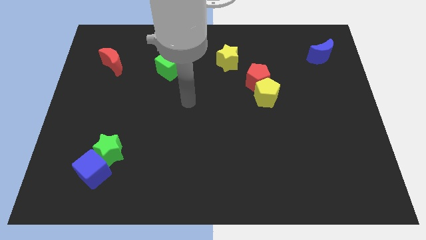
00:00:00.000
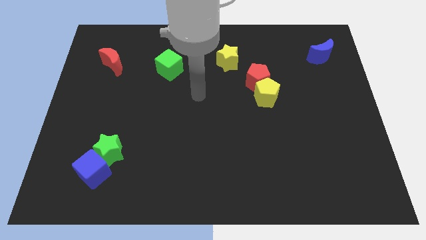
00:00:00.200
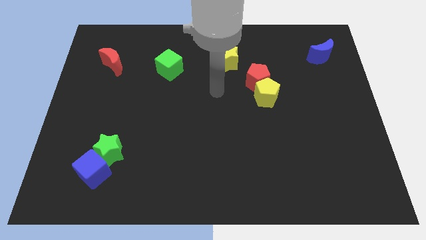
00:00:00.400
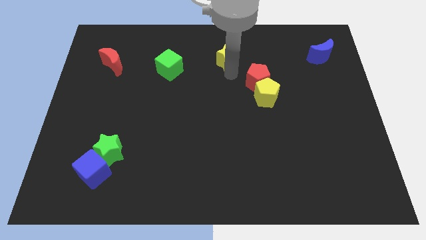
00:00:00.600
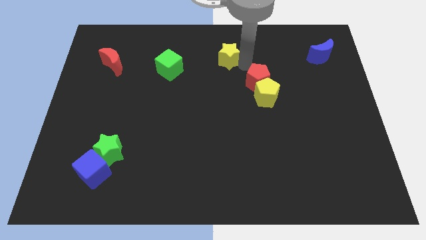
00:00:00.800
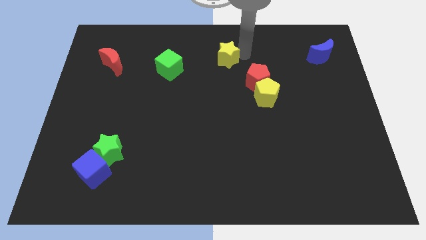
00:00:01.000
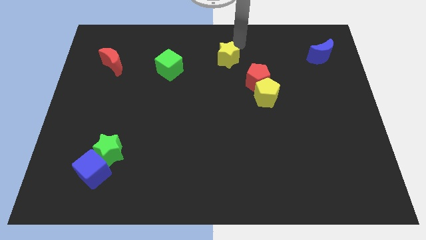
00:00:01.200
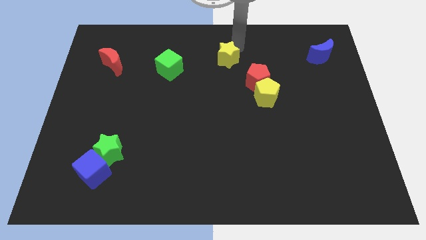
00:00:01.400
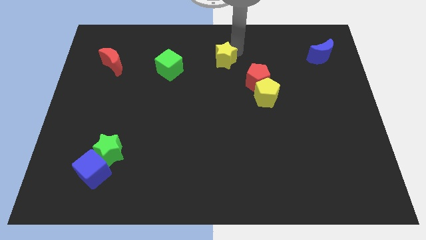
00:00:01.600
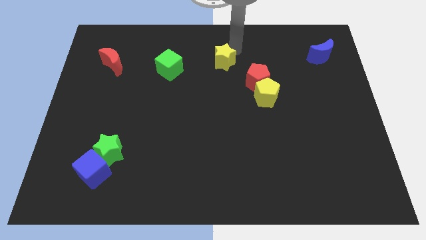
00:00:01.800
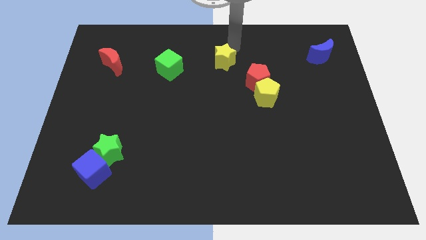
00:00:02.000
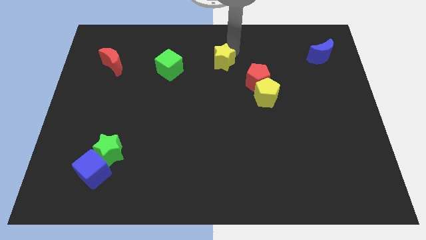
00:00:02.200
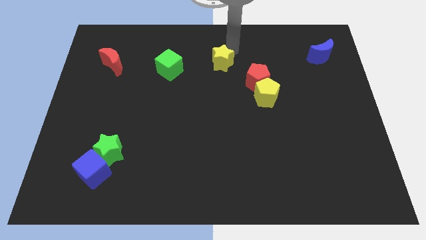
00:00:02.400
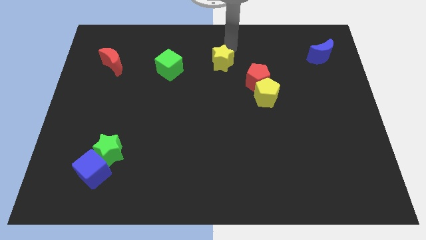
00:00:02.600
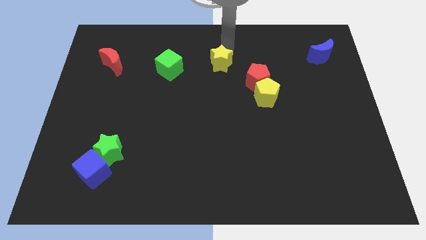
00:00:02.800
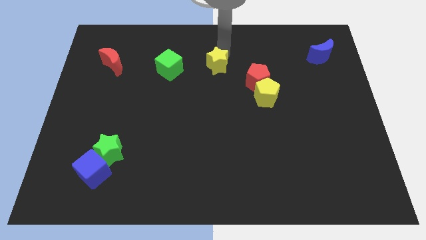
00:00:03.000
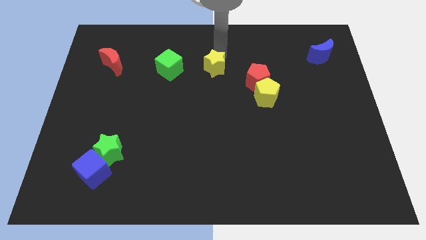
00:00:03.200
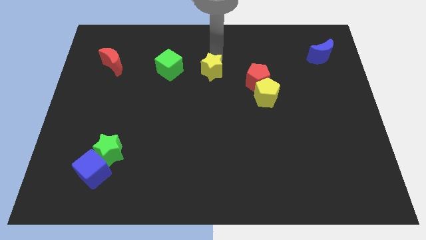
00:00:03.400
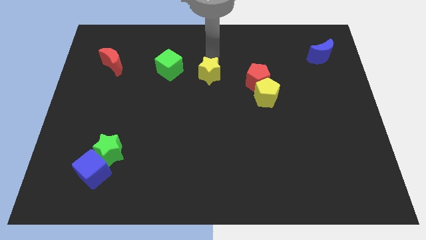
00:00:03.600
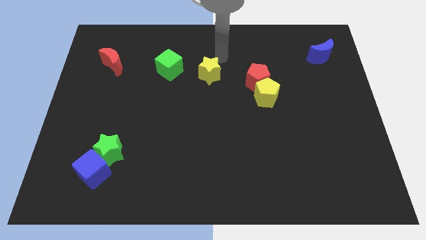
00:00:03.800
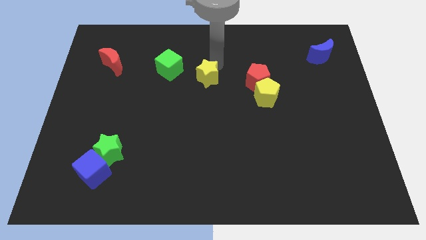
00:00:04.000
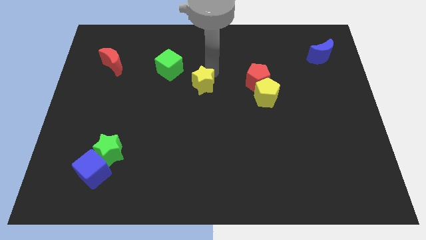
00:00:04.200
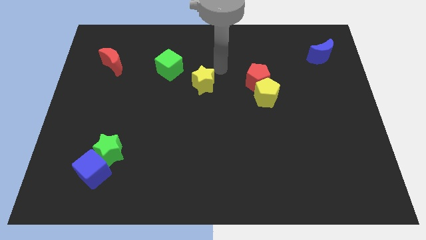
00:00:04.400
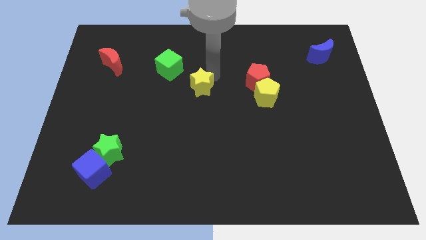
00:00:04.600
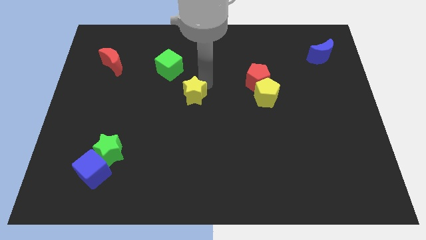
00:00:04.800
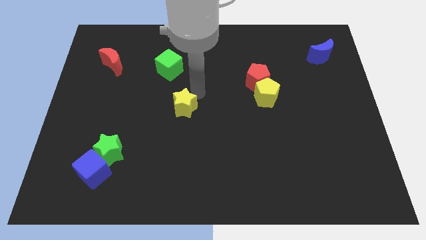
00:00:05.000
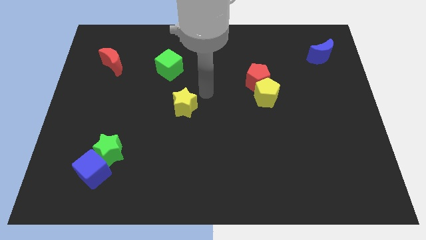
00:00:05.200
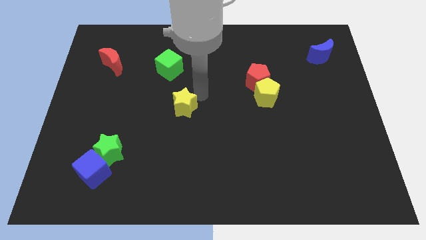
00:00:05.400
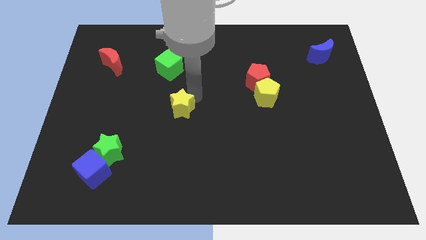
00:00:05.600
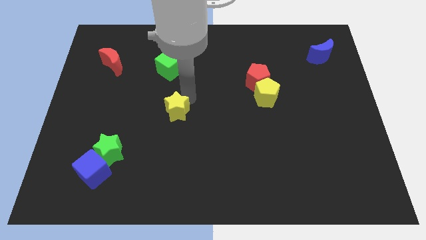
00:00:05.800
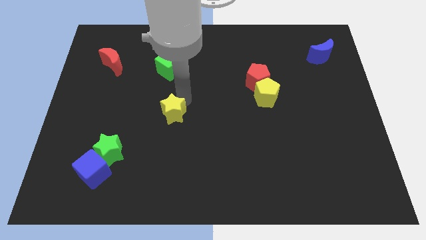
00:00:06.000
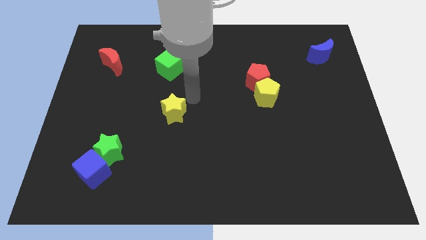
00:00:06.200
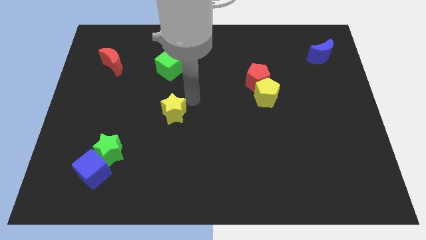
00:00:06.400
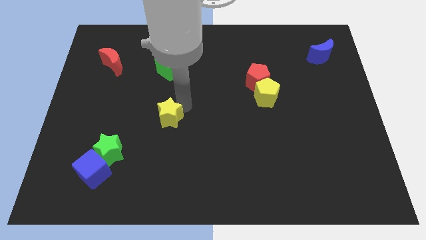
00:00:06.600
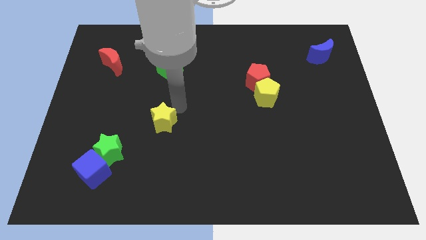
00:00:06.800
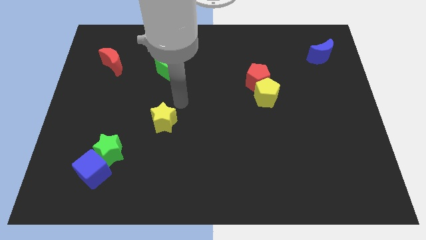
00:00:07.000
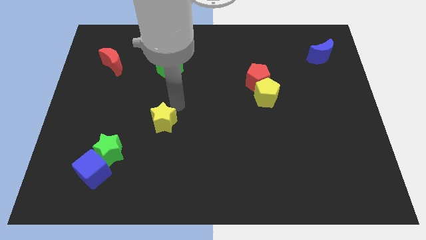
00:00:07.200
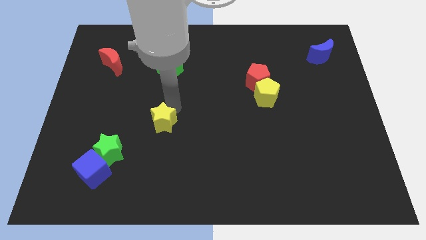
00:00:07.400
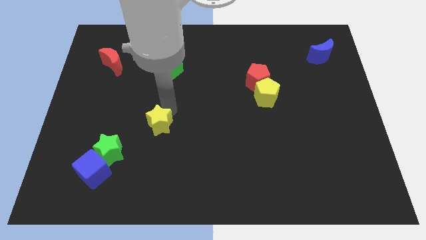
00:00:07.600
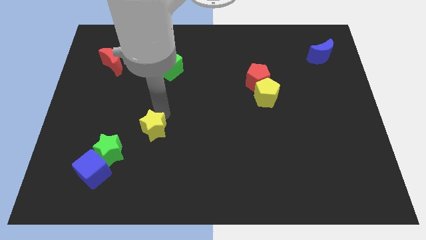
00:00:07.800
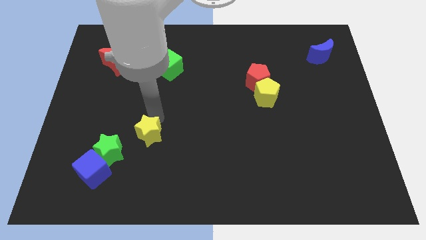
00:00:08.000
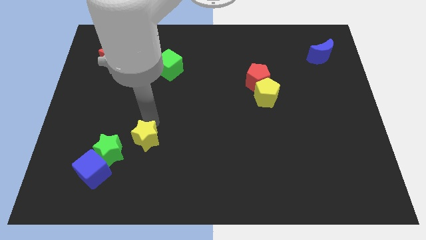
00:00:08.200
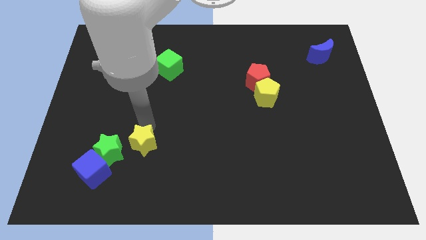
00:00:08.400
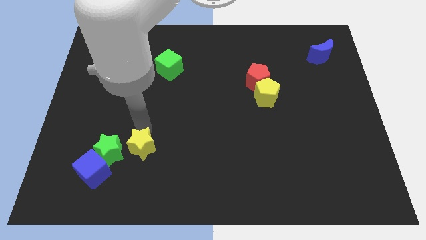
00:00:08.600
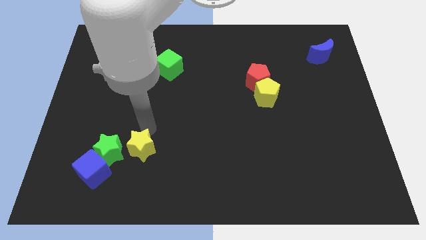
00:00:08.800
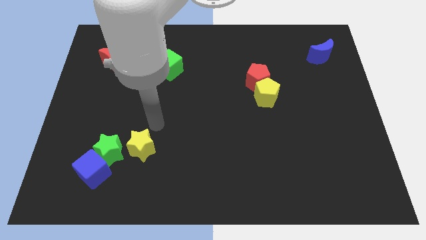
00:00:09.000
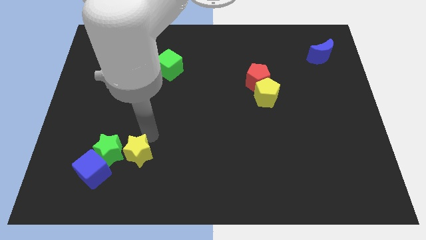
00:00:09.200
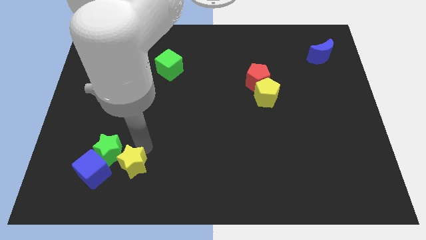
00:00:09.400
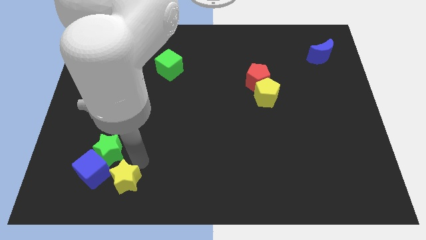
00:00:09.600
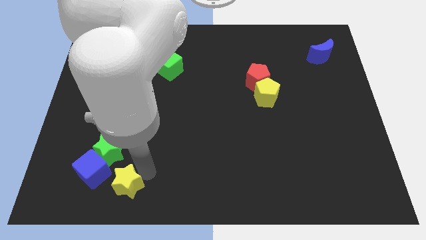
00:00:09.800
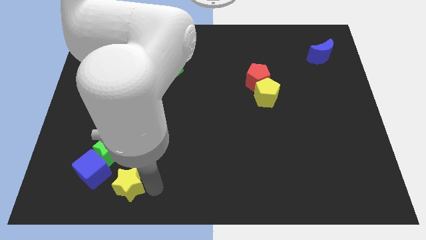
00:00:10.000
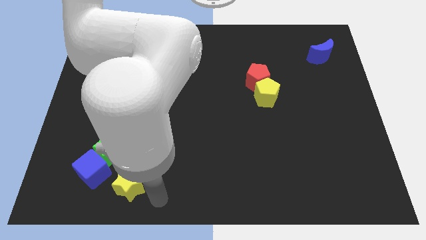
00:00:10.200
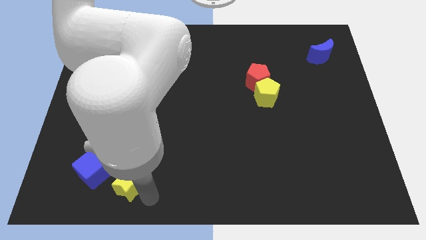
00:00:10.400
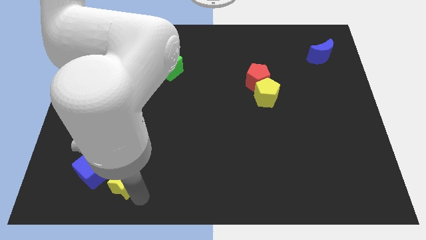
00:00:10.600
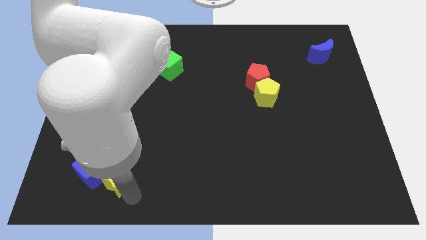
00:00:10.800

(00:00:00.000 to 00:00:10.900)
move the yellow star next to the blue cube

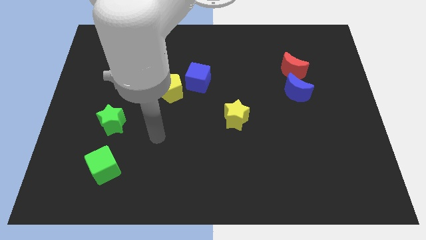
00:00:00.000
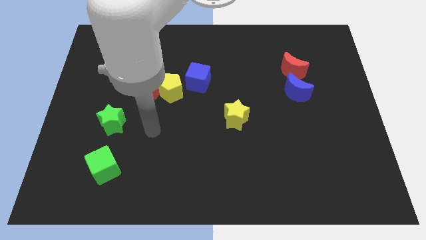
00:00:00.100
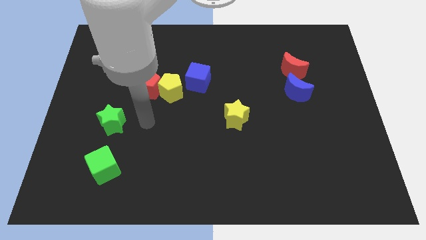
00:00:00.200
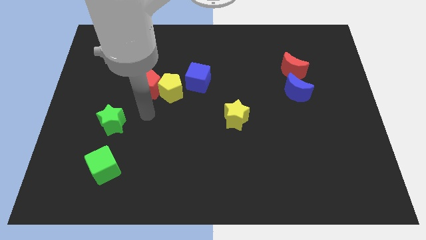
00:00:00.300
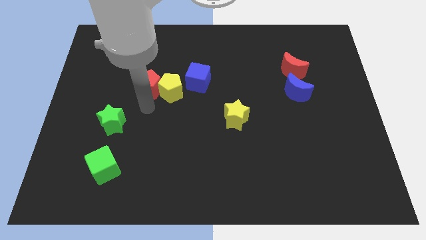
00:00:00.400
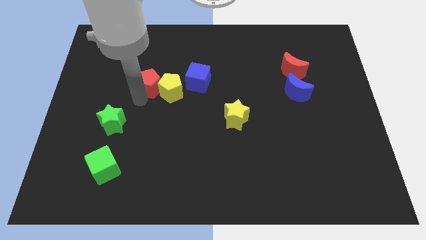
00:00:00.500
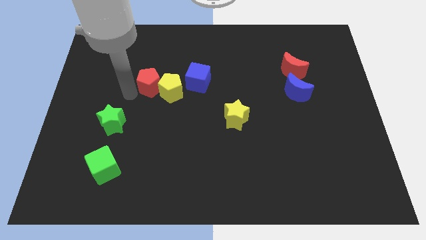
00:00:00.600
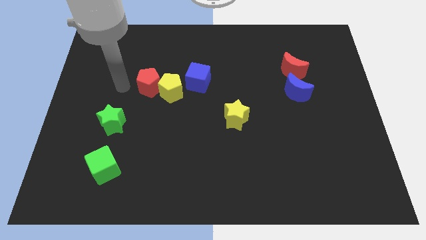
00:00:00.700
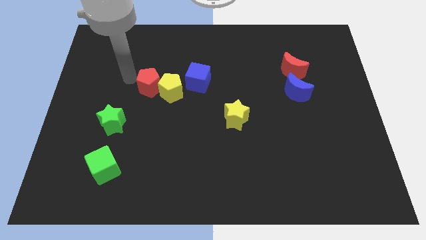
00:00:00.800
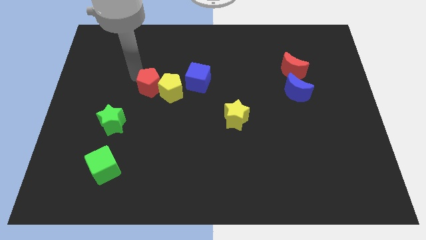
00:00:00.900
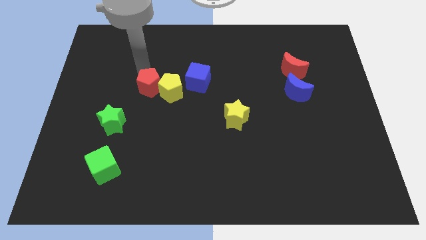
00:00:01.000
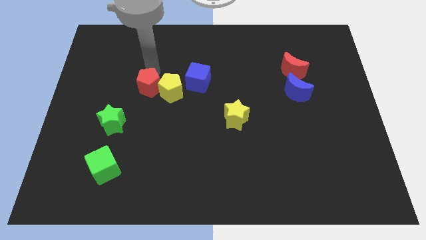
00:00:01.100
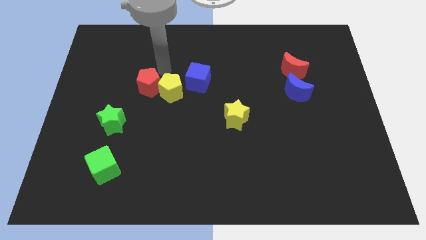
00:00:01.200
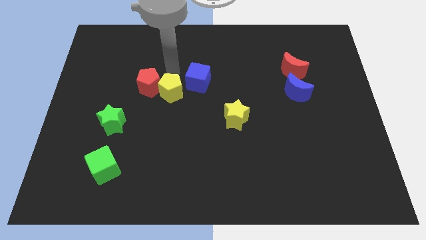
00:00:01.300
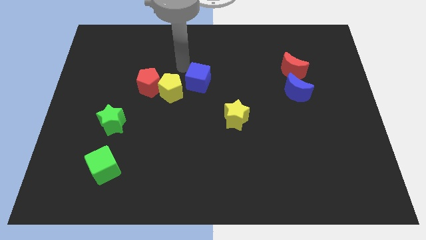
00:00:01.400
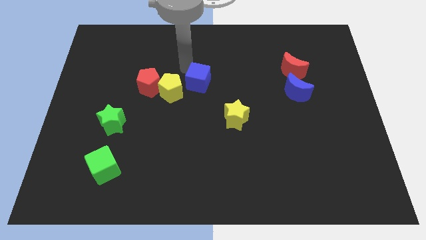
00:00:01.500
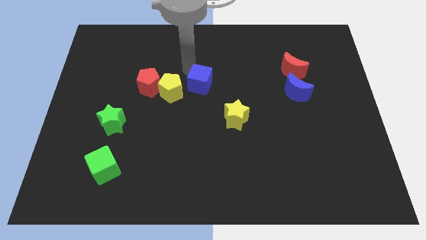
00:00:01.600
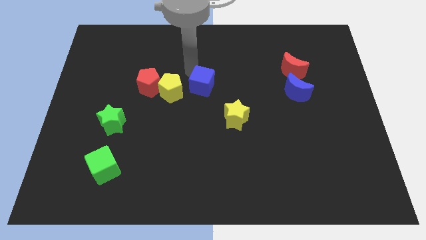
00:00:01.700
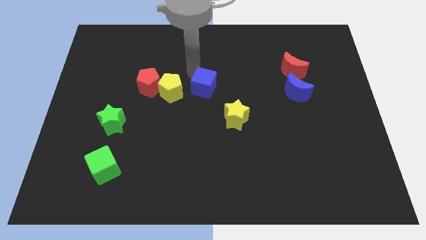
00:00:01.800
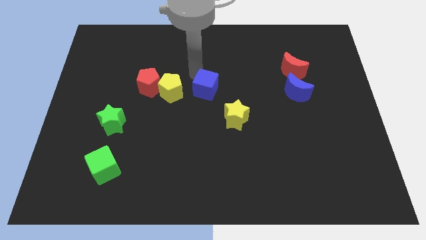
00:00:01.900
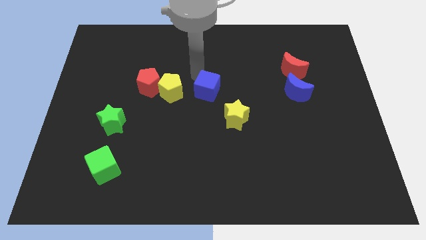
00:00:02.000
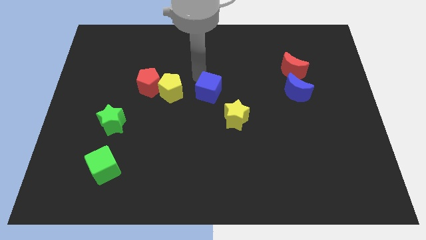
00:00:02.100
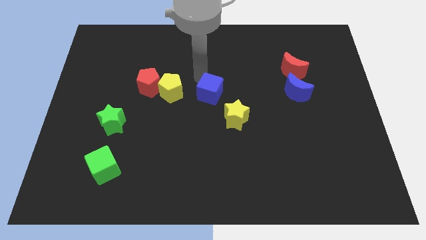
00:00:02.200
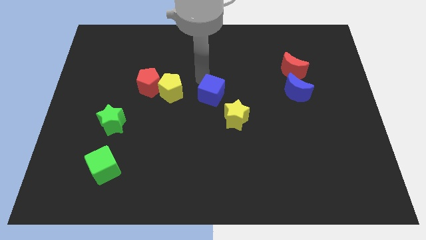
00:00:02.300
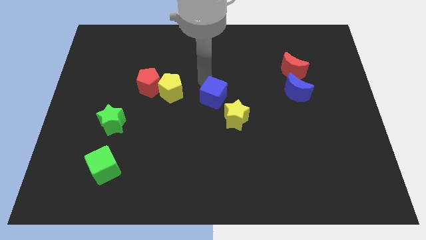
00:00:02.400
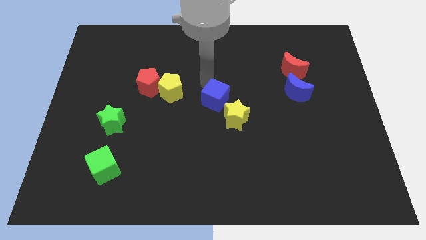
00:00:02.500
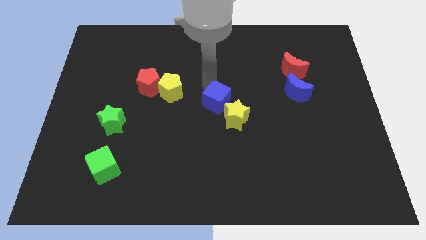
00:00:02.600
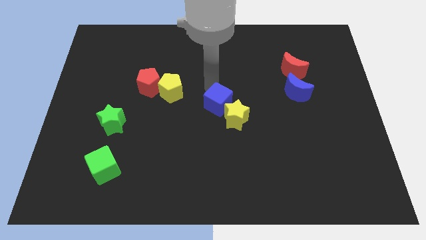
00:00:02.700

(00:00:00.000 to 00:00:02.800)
slide the blue cube close to the yellow star

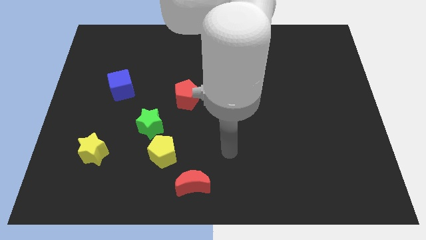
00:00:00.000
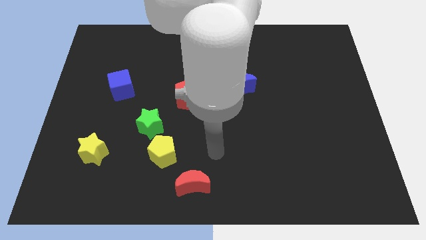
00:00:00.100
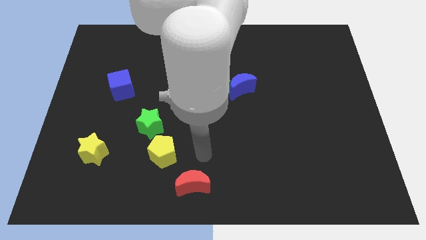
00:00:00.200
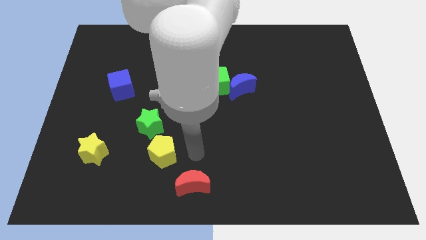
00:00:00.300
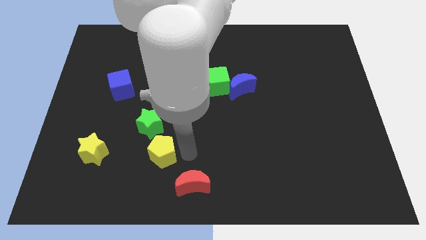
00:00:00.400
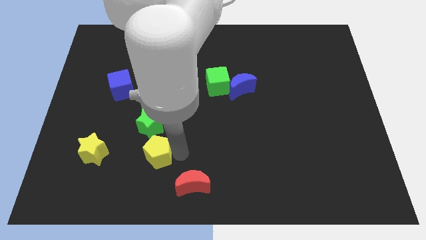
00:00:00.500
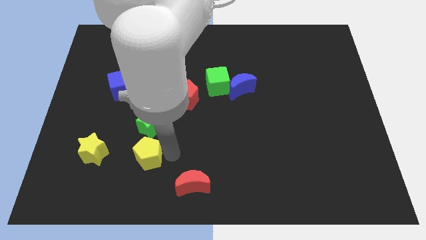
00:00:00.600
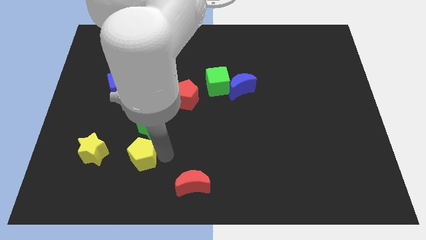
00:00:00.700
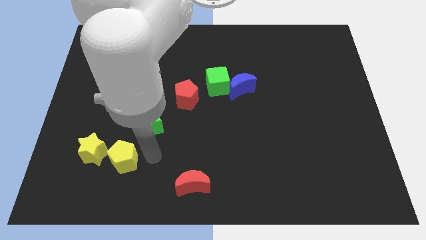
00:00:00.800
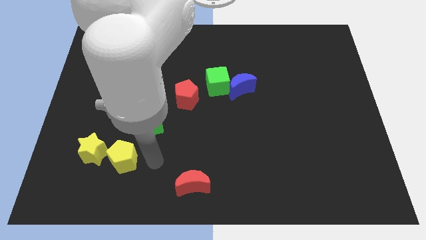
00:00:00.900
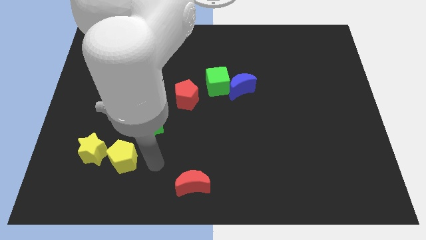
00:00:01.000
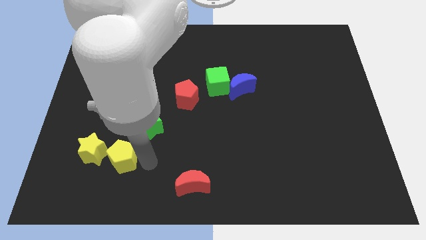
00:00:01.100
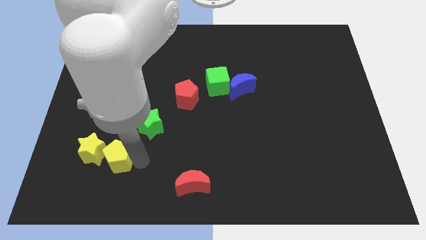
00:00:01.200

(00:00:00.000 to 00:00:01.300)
move the yellow pentagon close to the yellow star
